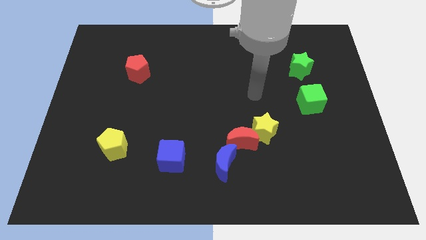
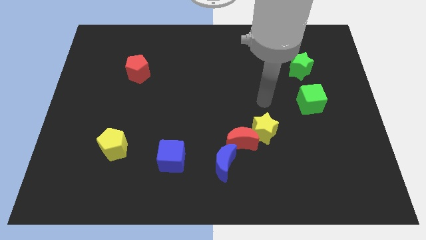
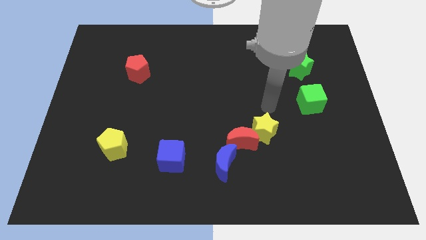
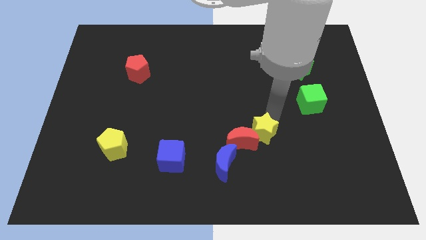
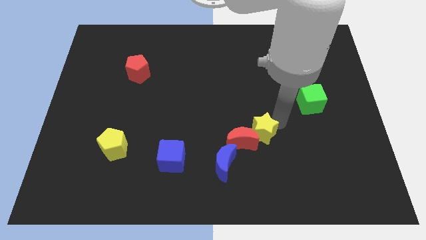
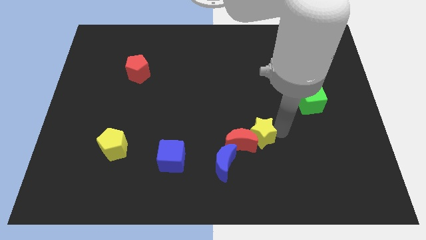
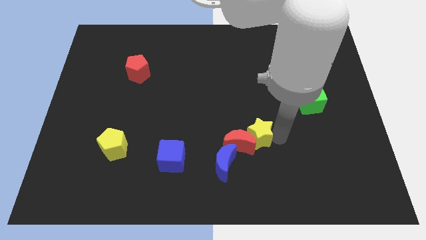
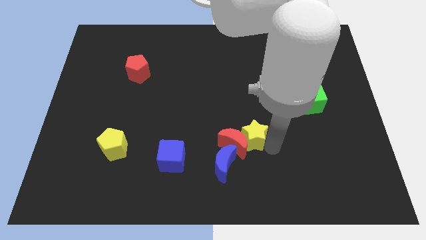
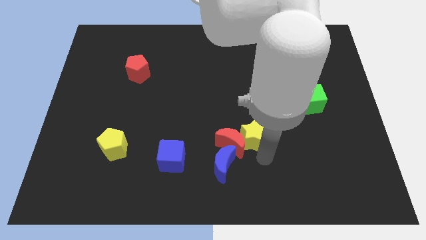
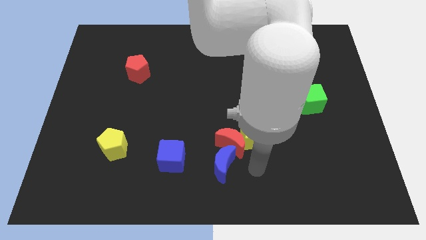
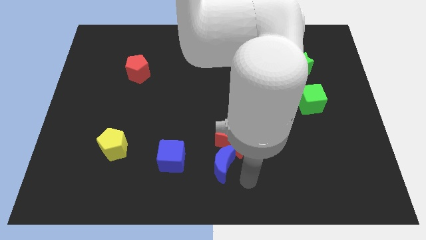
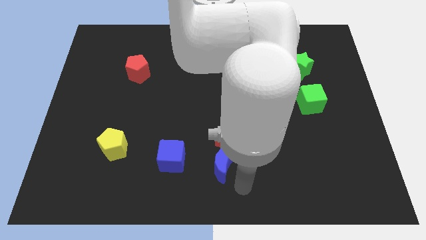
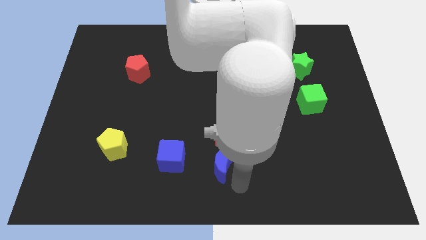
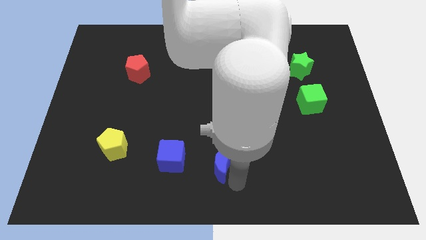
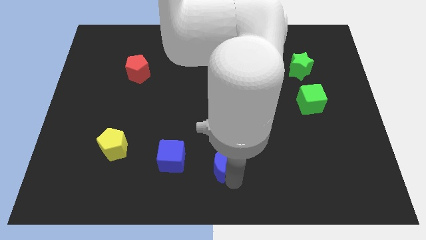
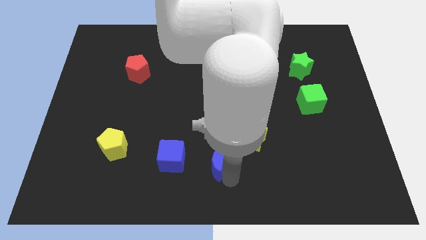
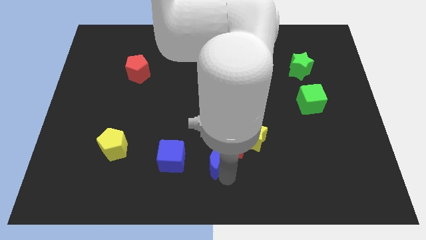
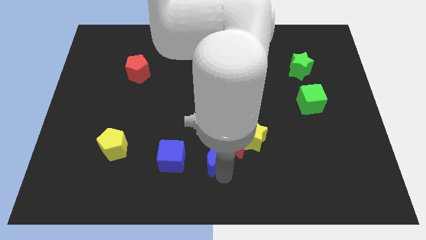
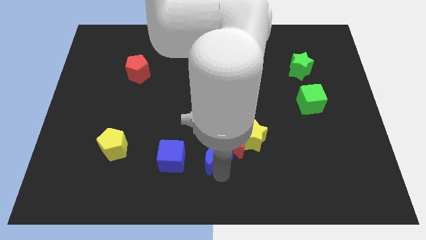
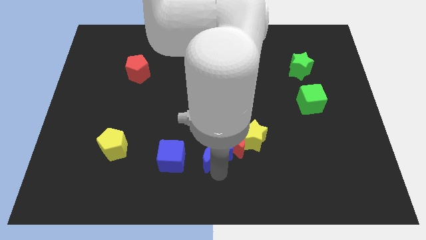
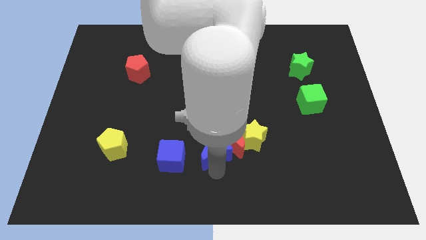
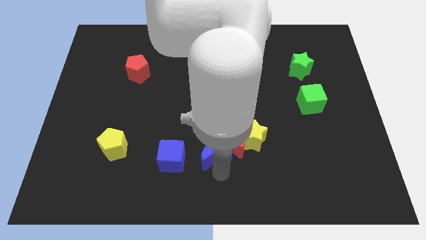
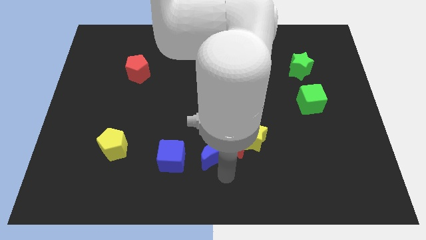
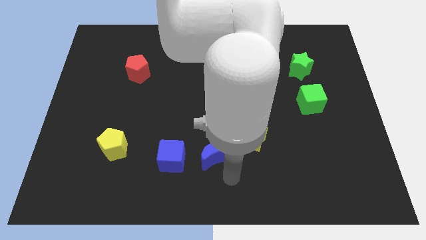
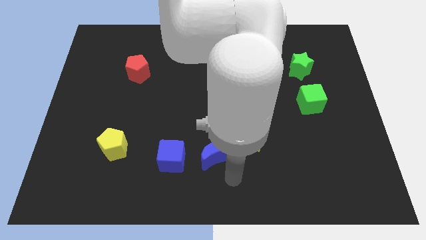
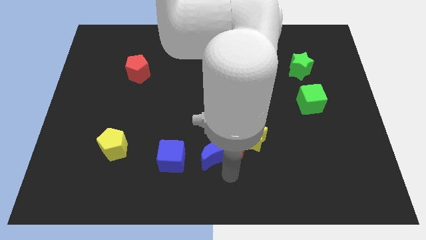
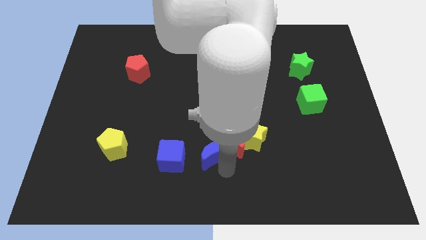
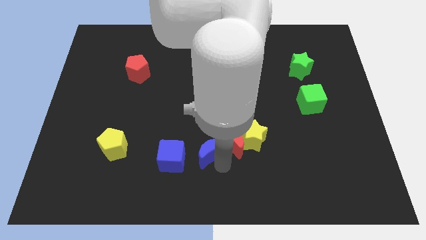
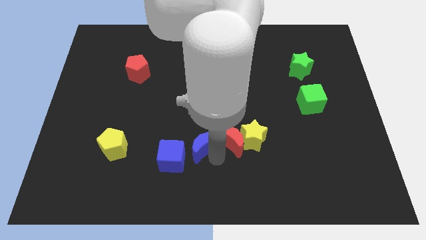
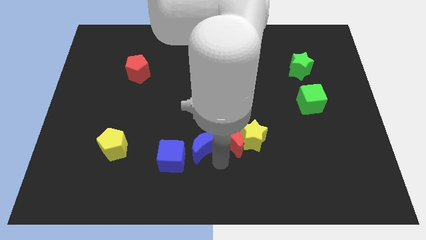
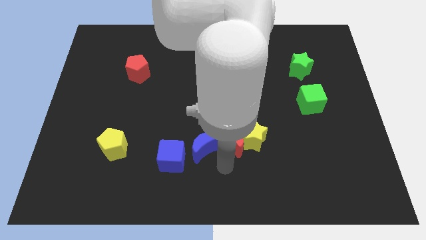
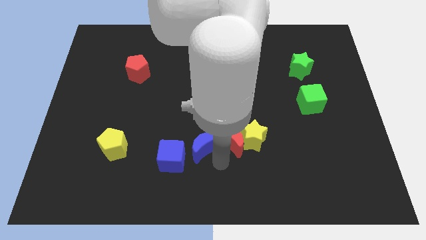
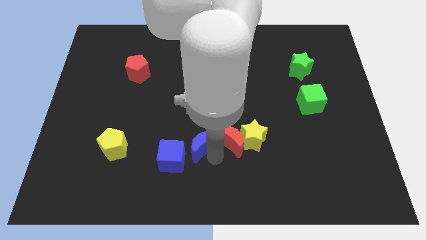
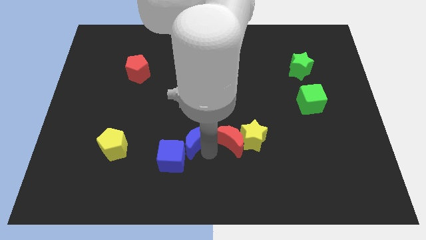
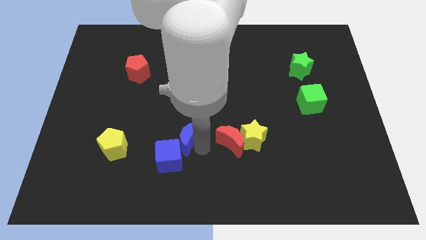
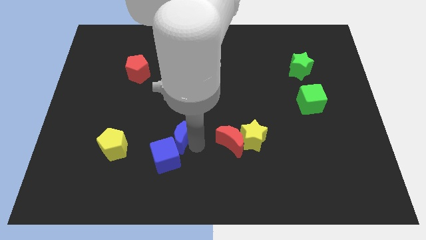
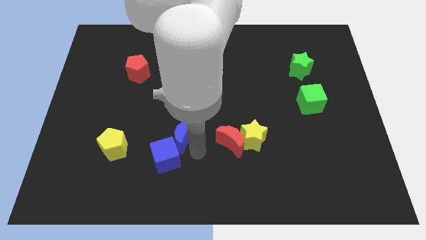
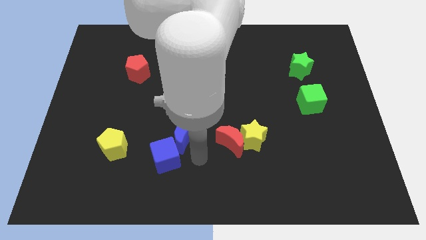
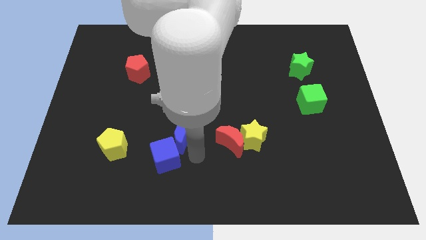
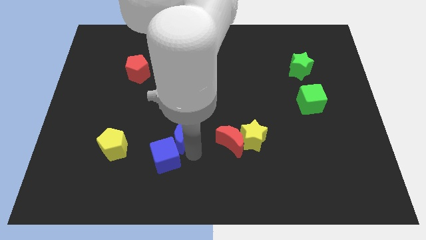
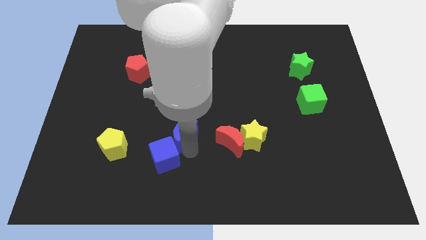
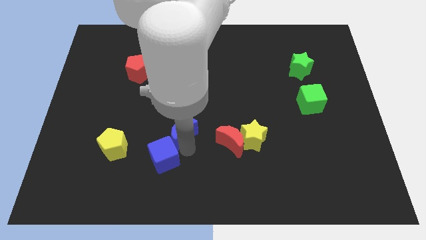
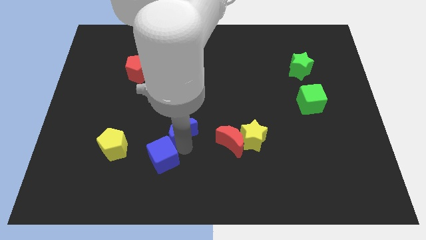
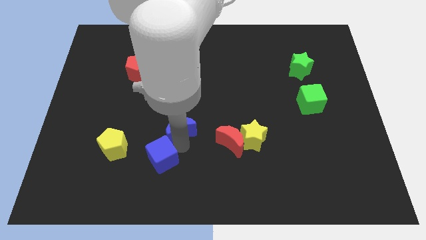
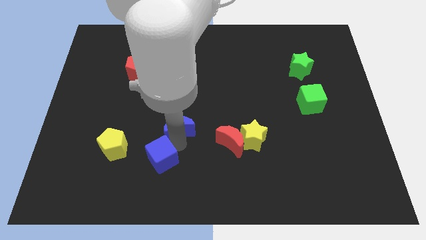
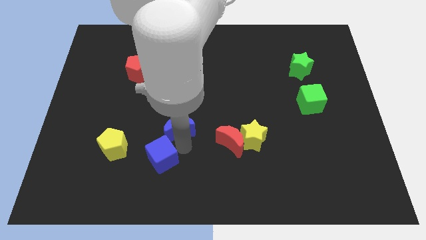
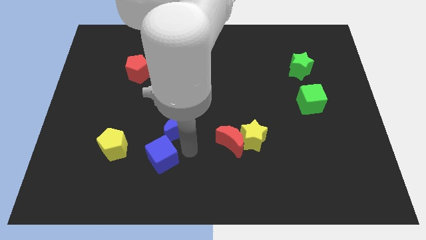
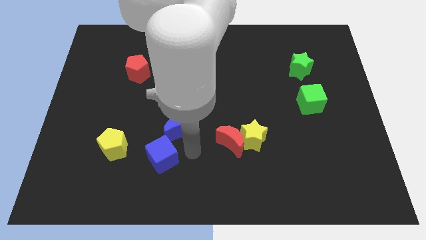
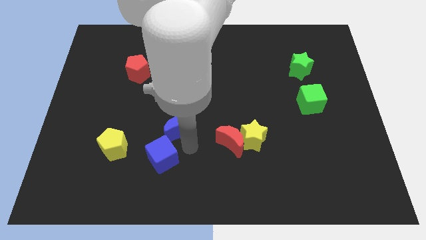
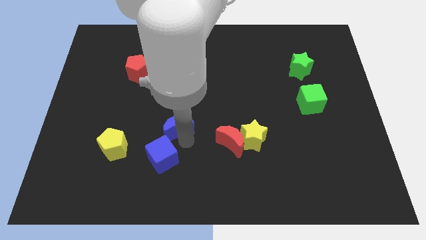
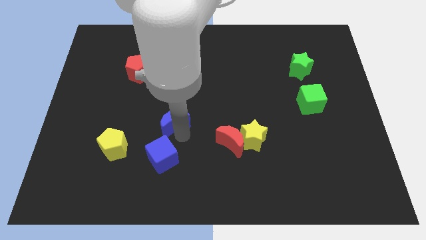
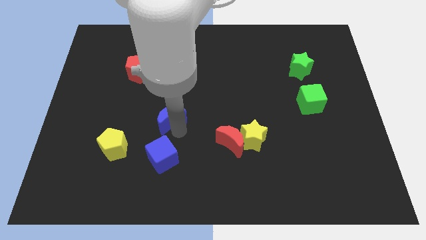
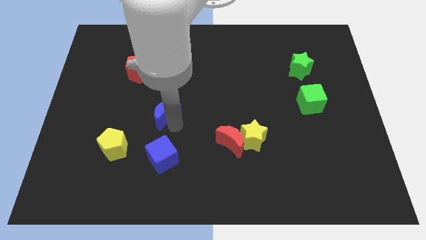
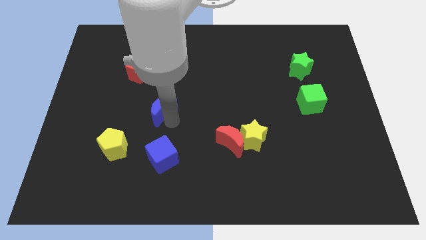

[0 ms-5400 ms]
slide the blue moon upwards and to the left diagonally

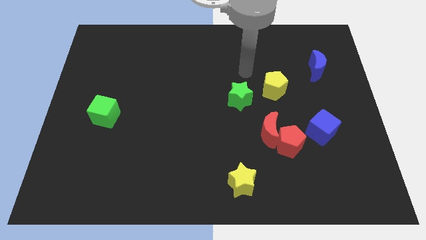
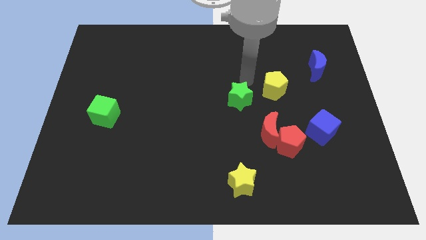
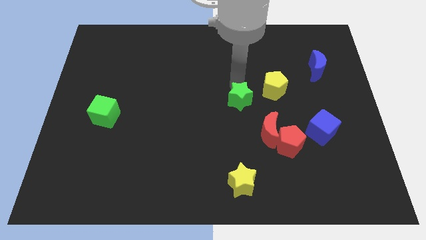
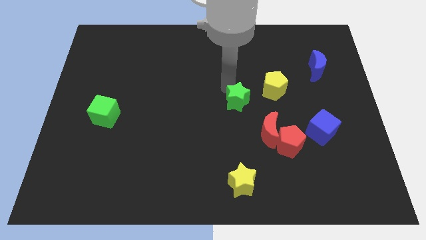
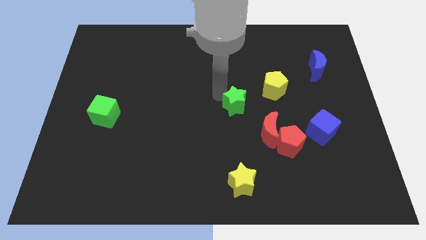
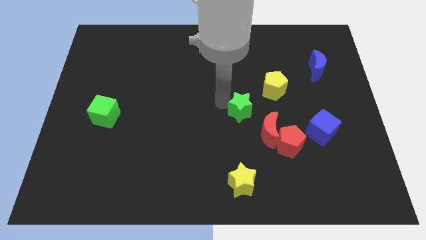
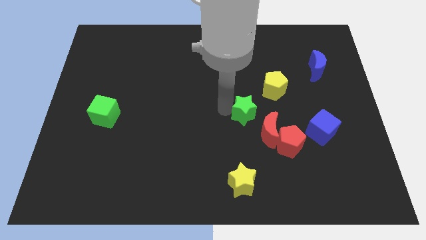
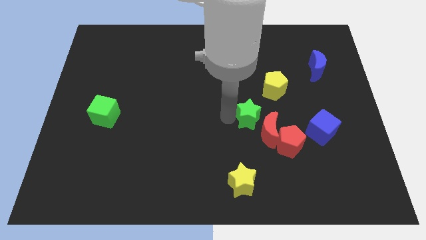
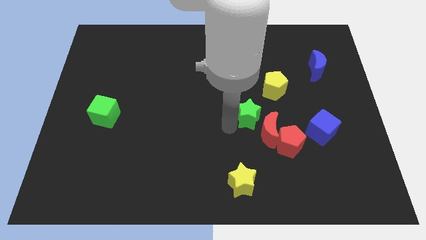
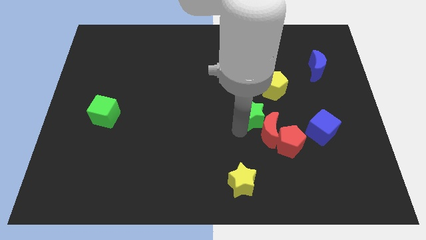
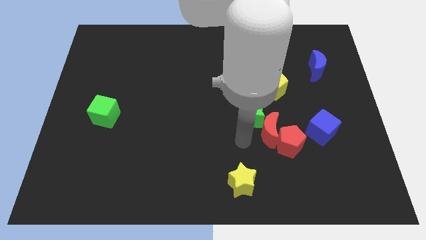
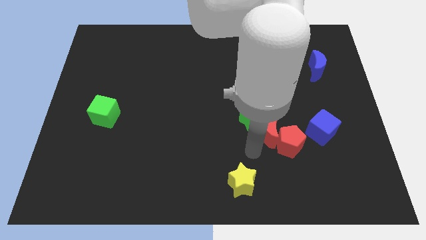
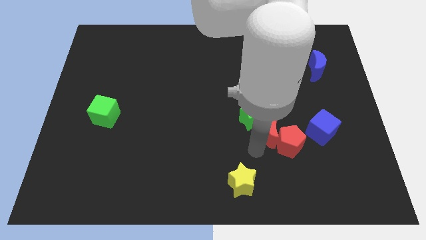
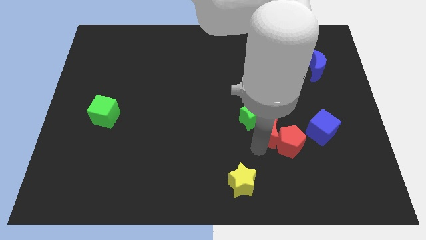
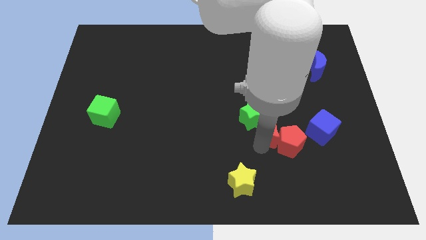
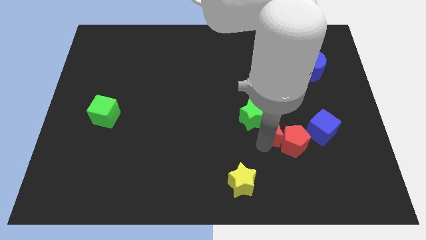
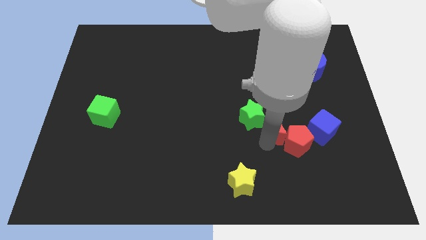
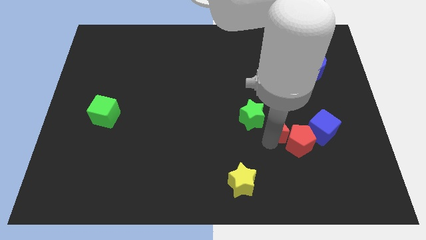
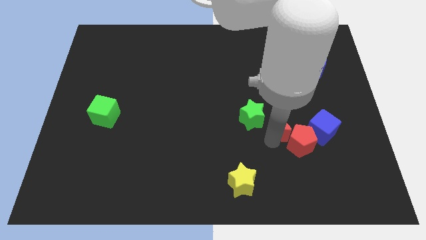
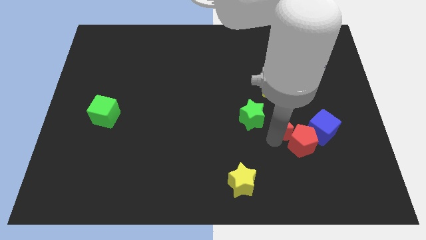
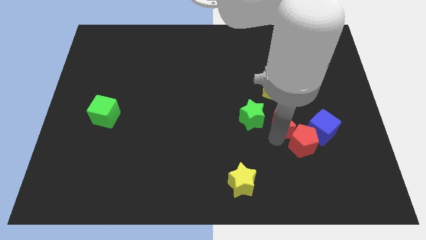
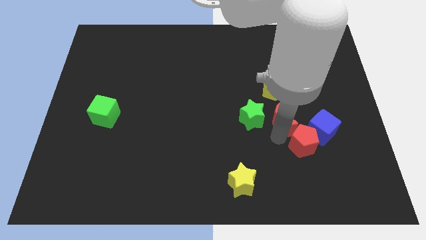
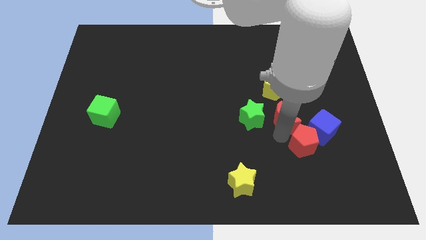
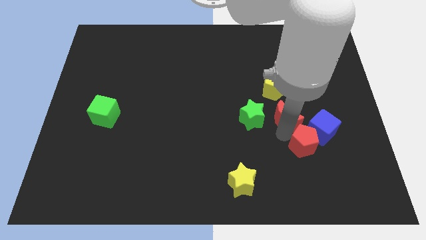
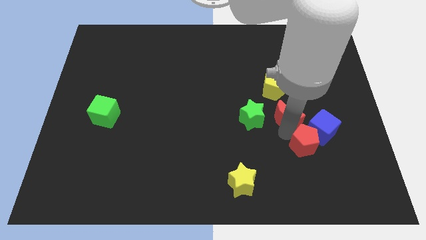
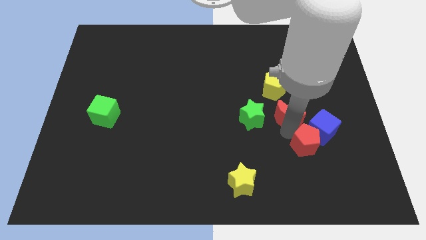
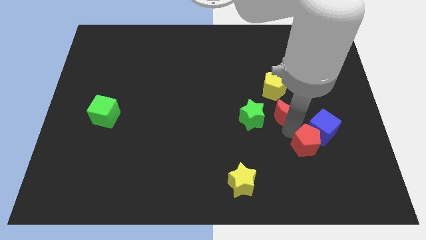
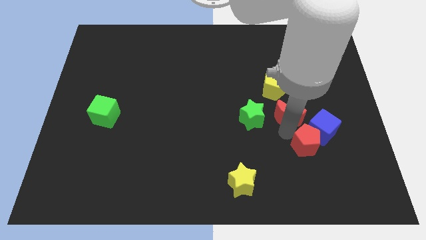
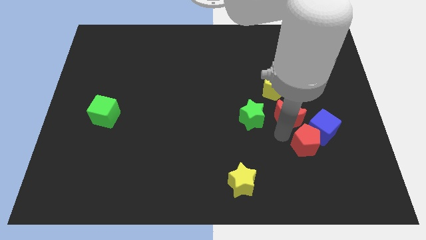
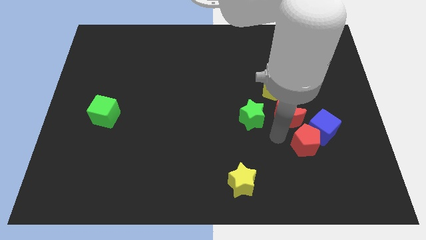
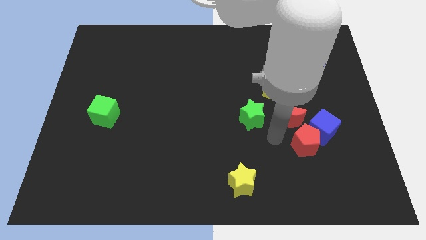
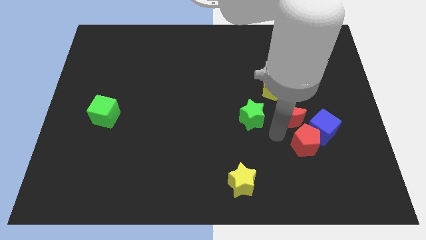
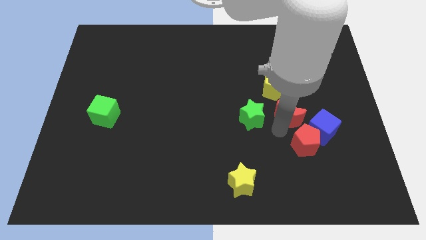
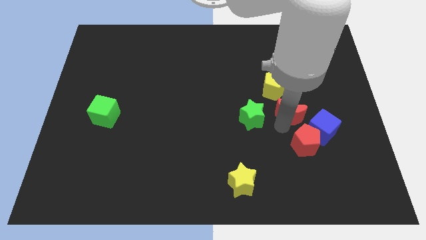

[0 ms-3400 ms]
slightly push the red moon diagonally upwards and to the right
